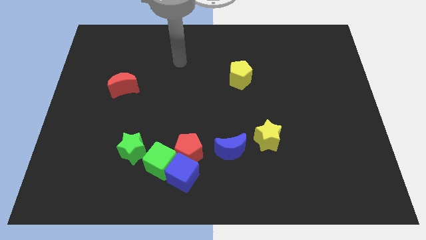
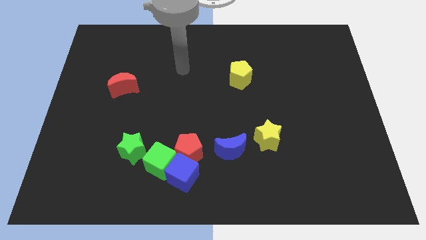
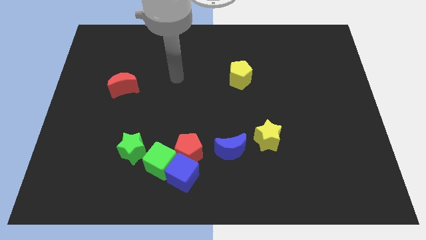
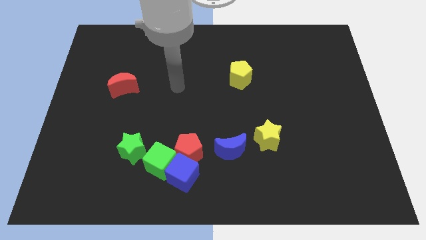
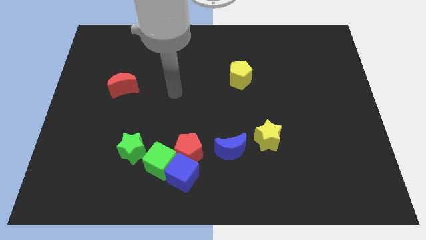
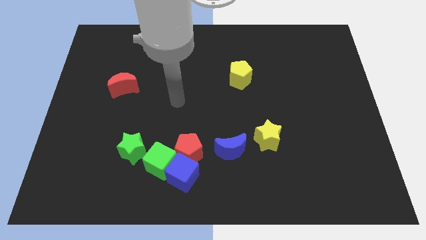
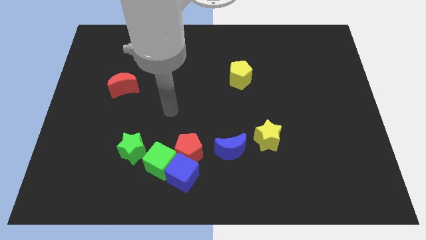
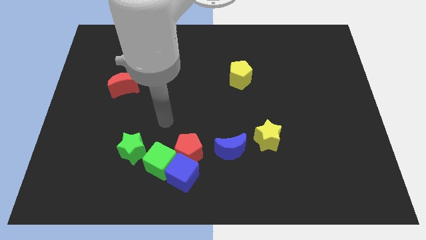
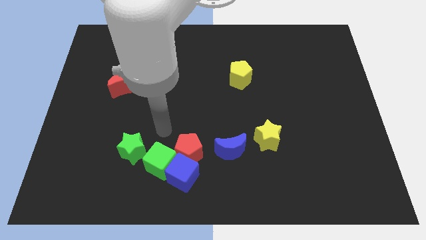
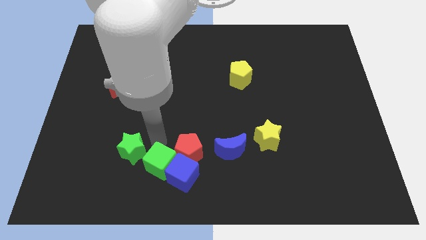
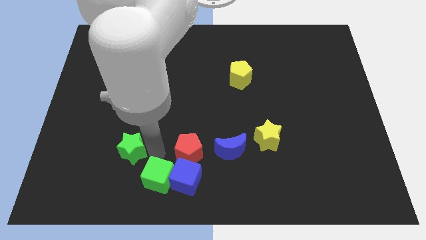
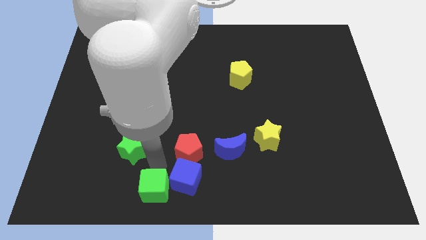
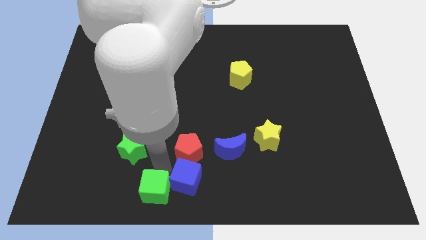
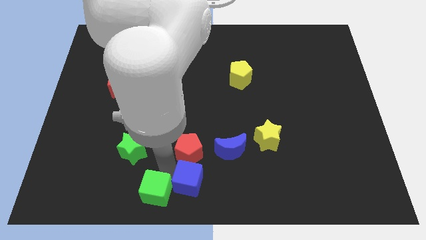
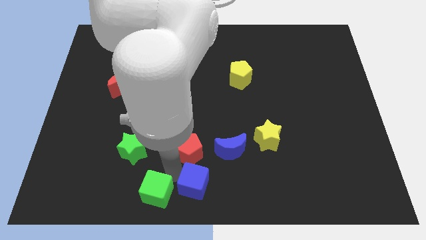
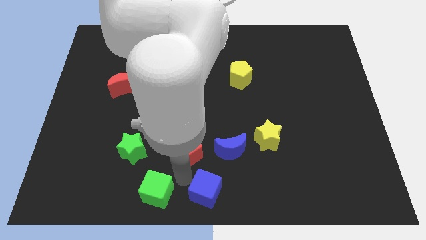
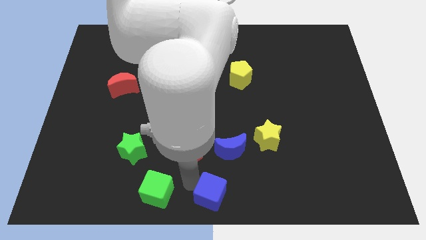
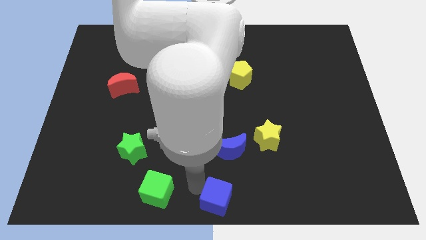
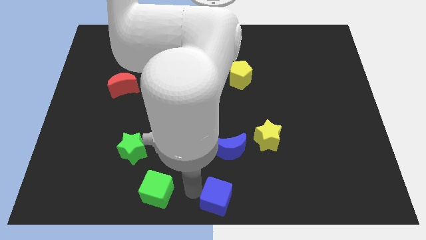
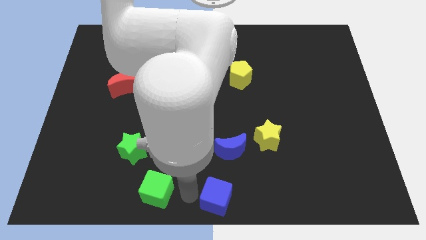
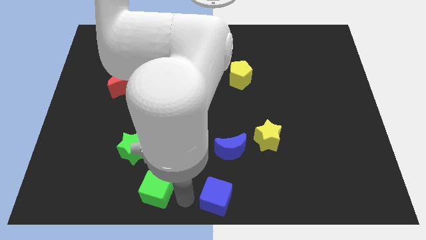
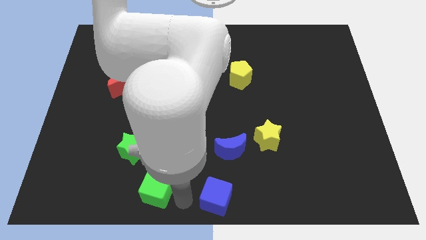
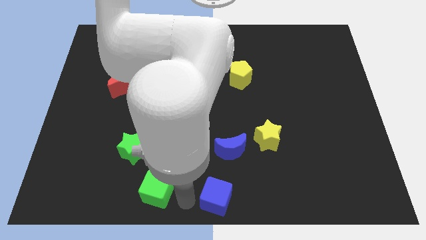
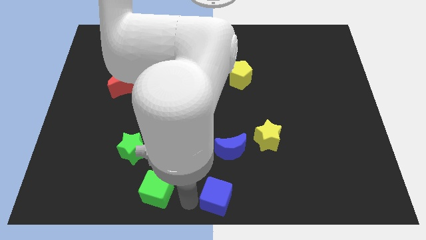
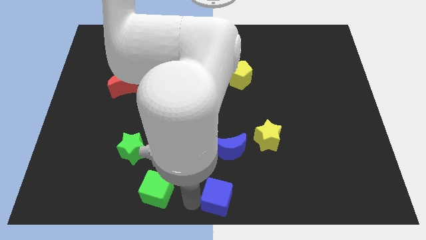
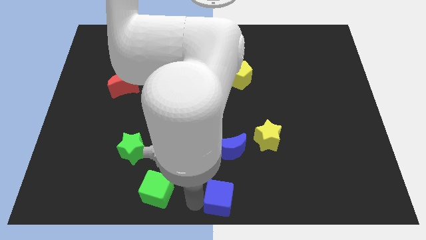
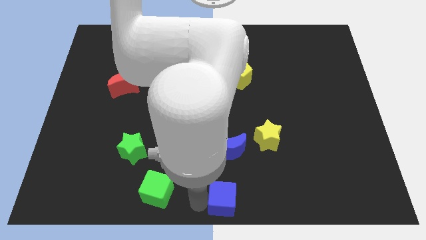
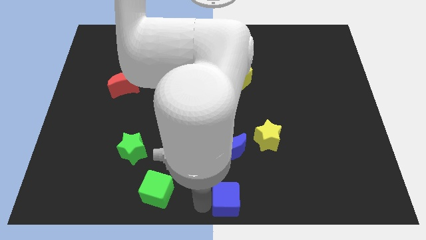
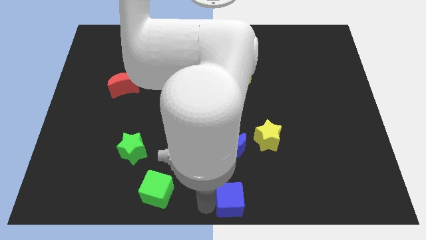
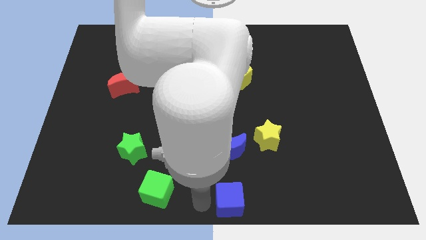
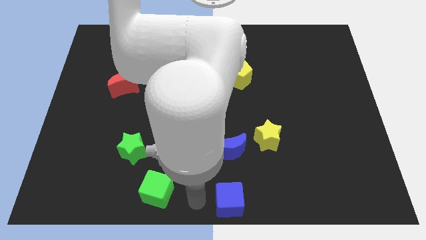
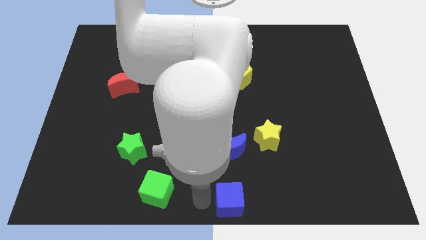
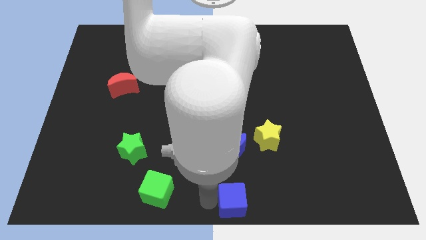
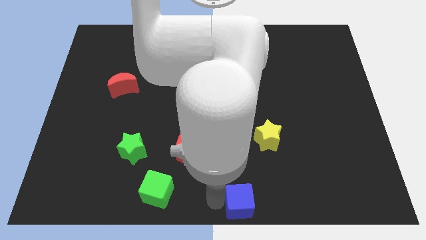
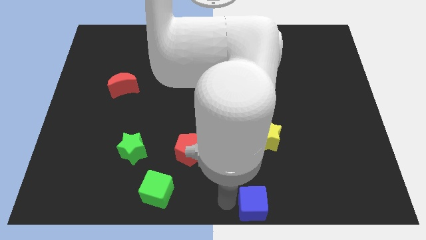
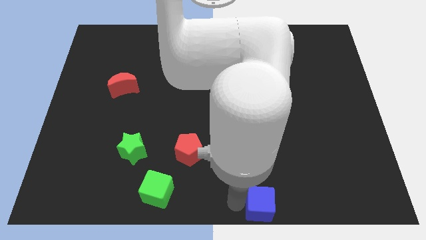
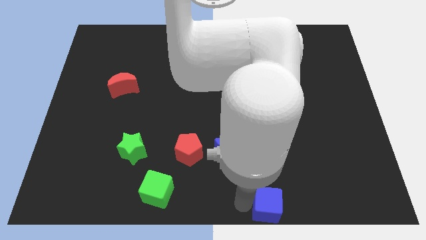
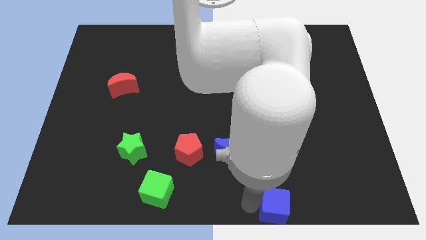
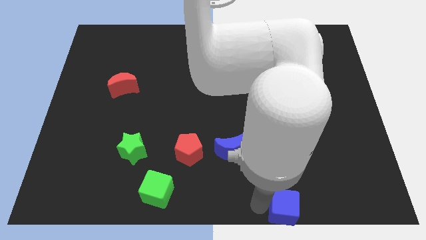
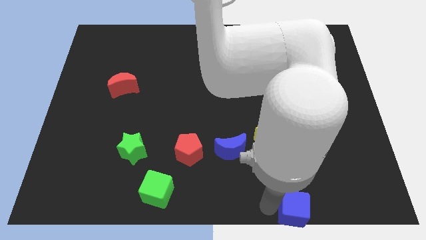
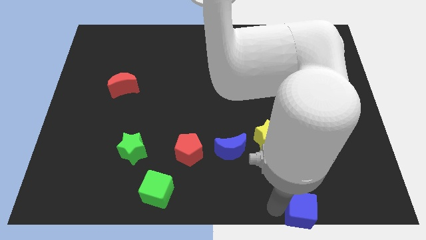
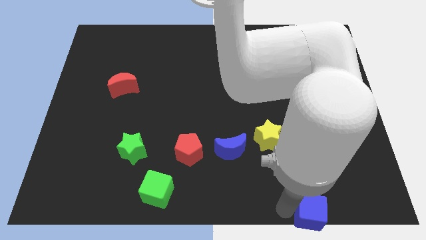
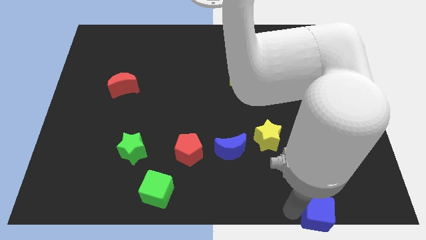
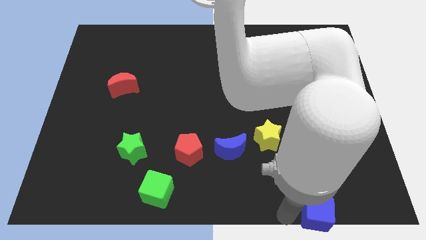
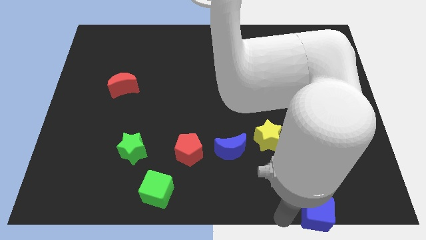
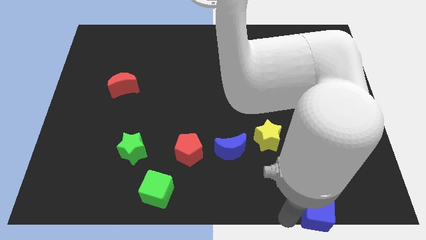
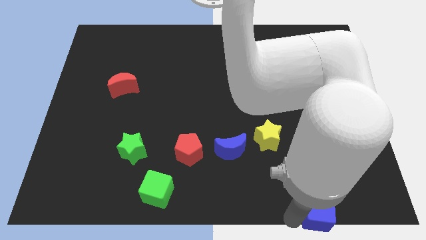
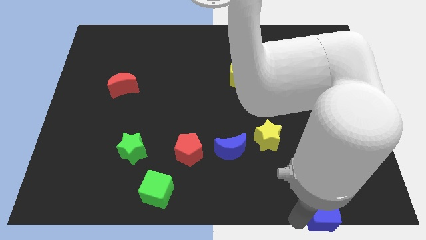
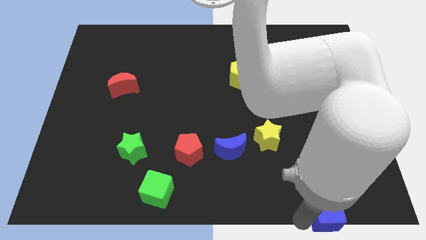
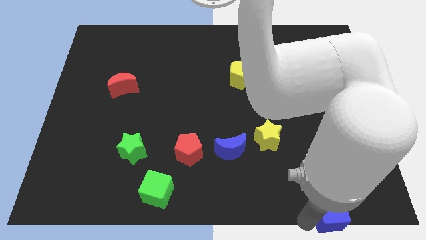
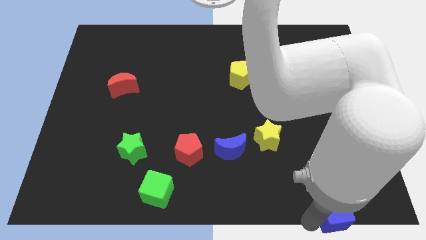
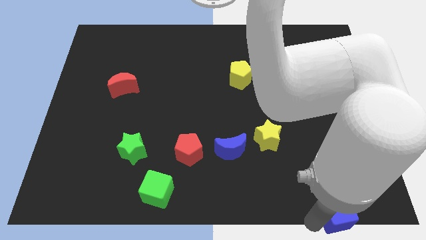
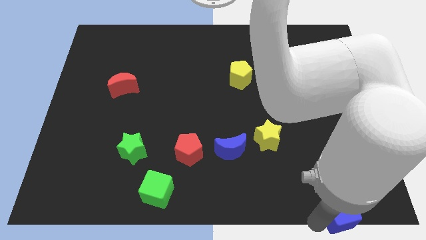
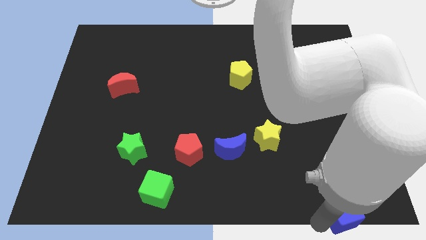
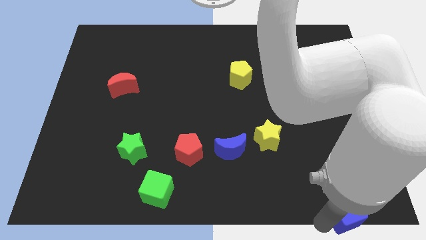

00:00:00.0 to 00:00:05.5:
slide the blue cube to the lower right corner

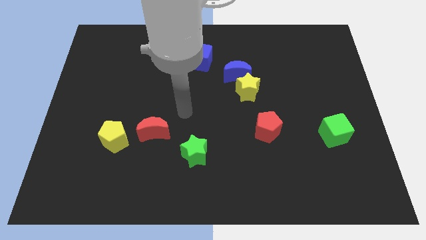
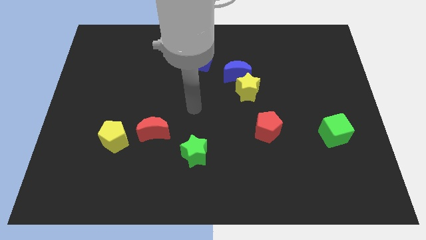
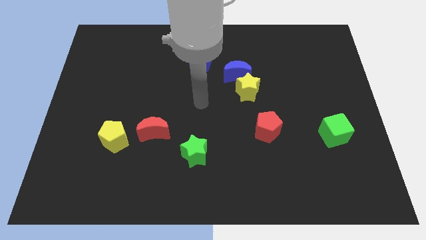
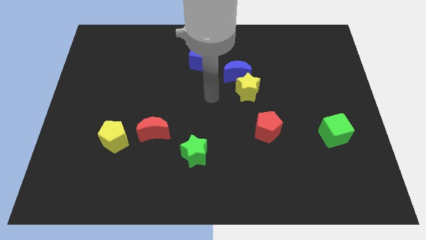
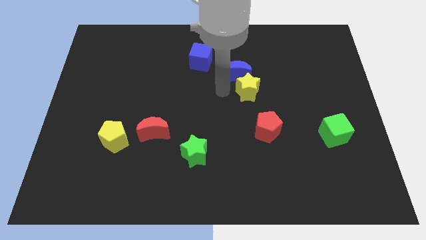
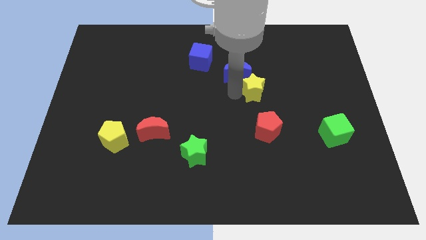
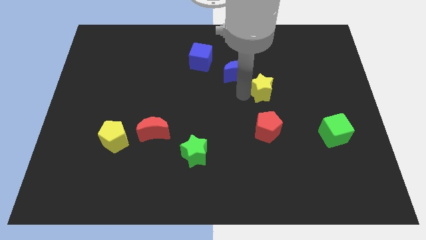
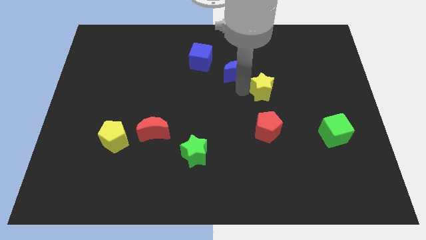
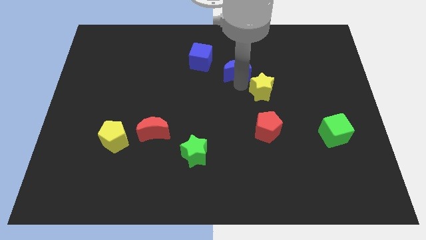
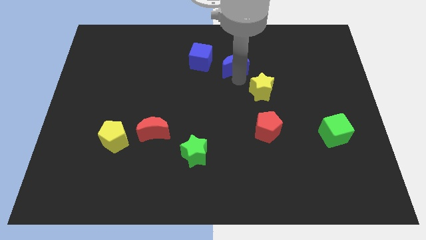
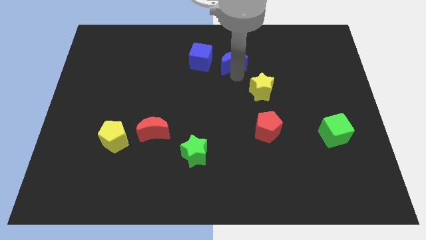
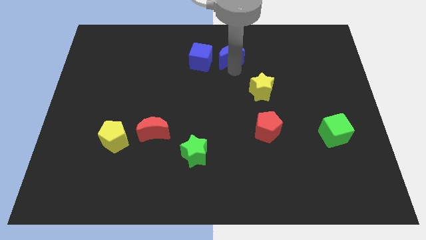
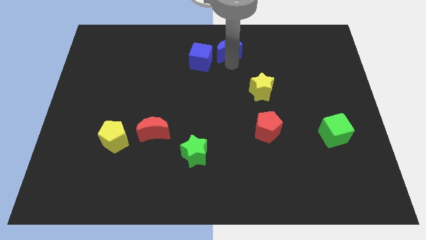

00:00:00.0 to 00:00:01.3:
push the blue moon to the towards your base
